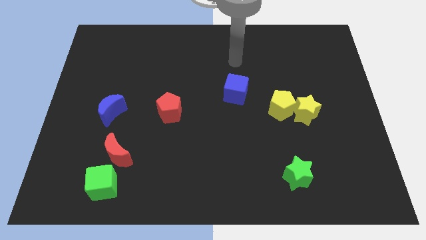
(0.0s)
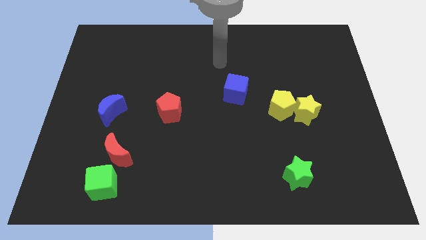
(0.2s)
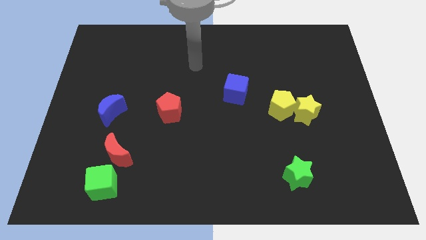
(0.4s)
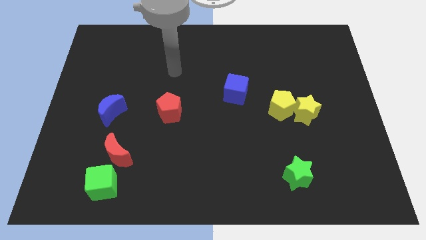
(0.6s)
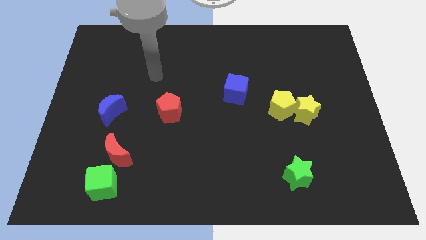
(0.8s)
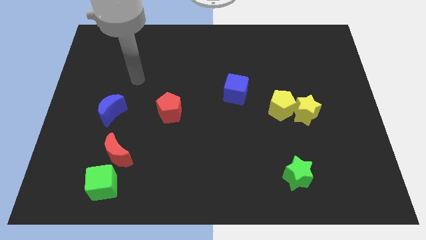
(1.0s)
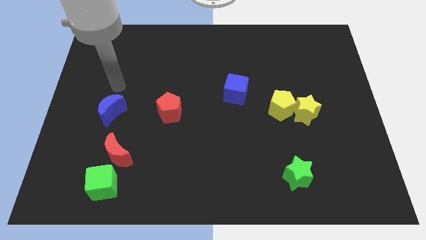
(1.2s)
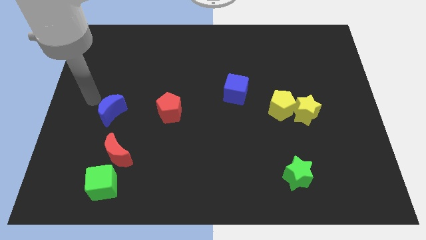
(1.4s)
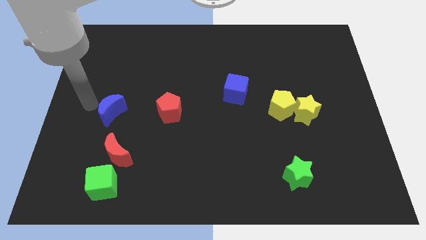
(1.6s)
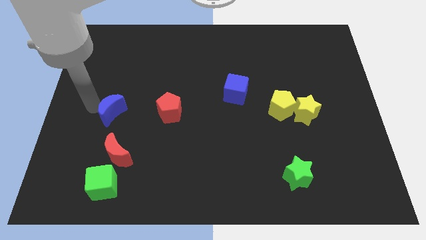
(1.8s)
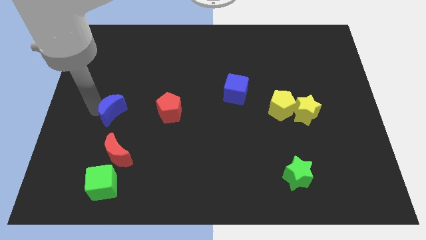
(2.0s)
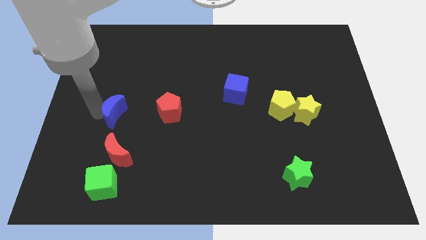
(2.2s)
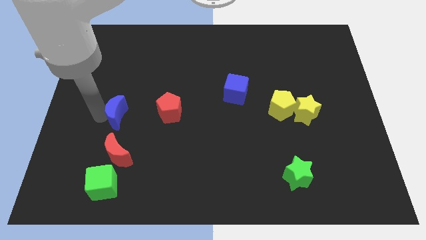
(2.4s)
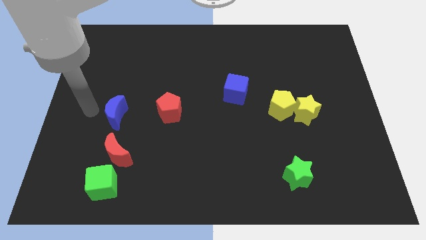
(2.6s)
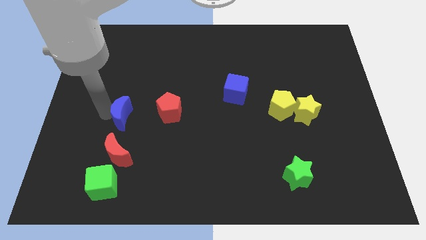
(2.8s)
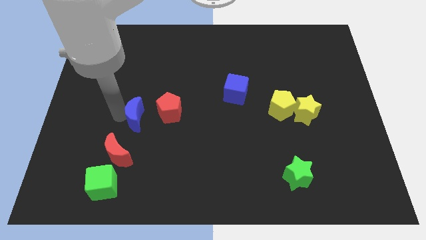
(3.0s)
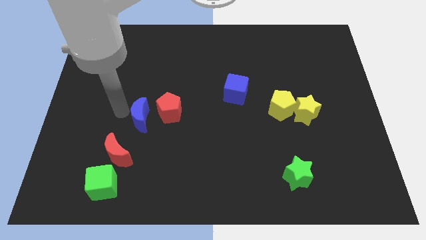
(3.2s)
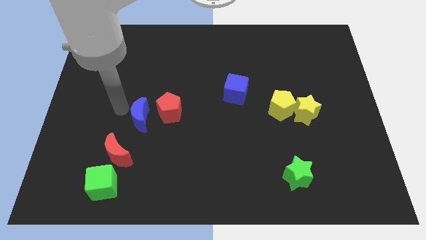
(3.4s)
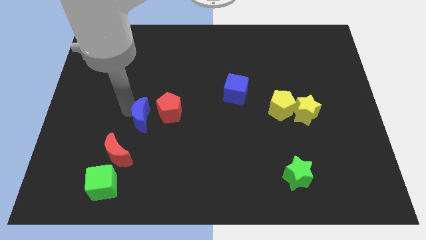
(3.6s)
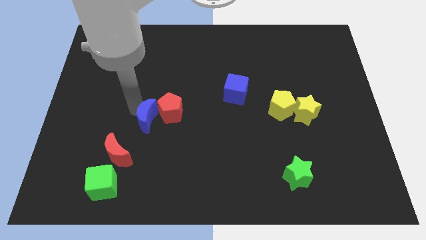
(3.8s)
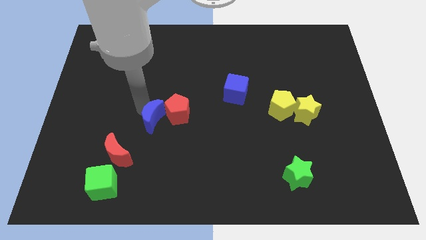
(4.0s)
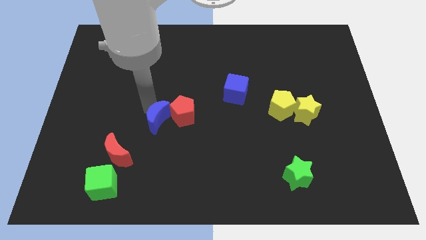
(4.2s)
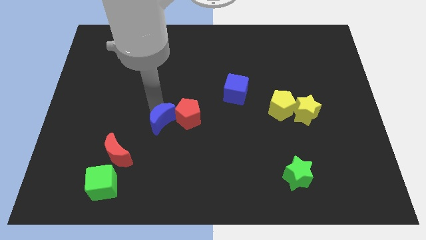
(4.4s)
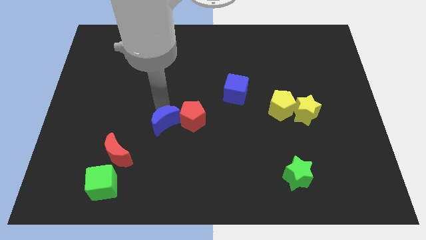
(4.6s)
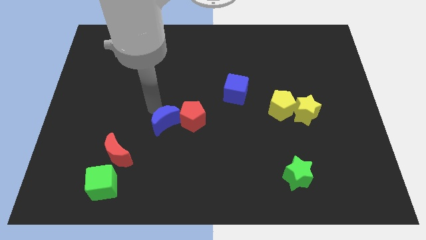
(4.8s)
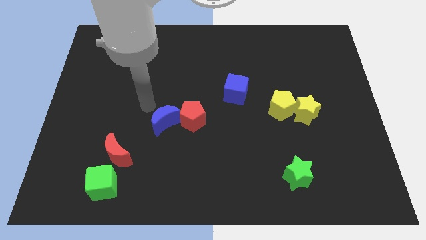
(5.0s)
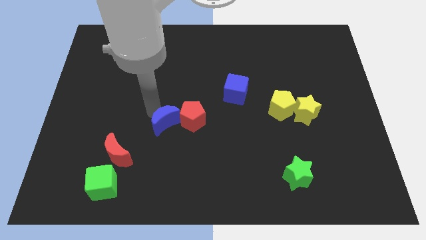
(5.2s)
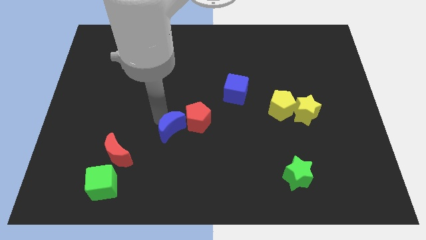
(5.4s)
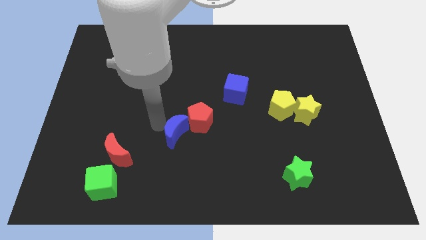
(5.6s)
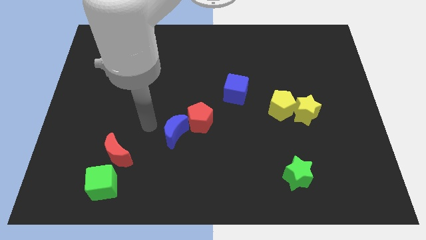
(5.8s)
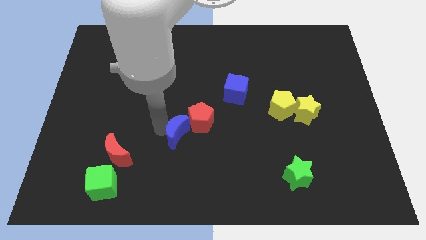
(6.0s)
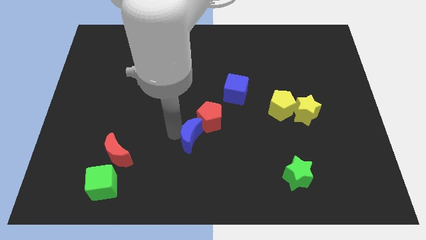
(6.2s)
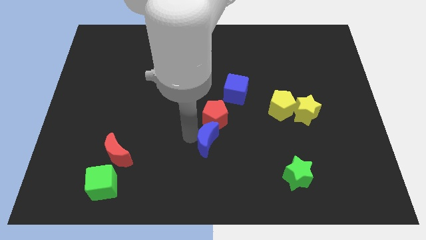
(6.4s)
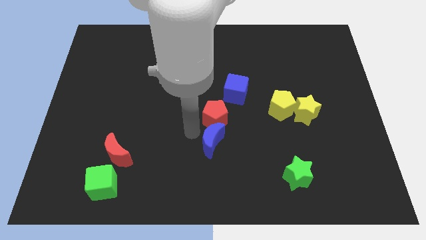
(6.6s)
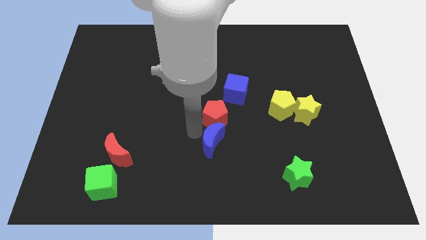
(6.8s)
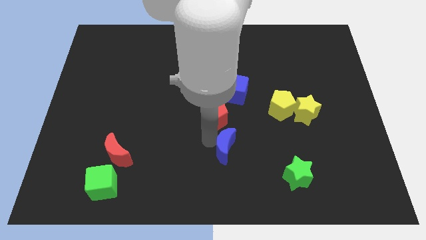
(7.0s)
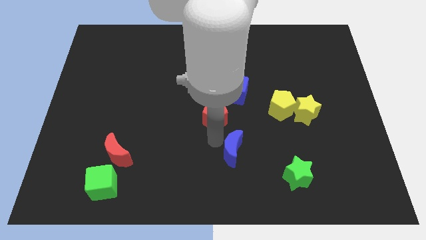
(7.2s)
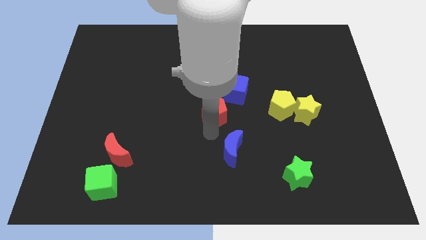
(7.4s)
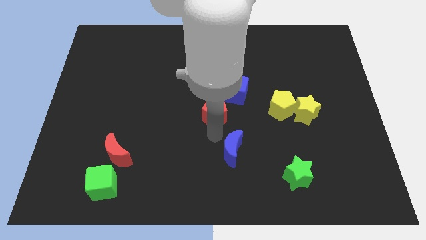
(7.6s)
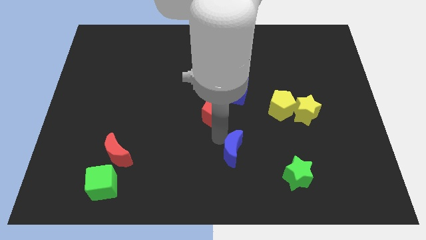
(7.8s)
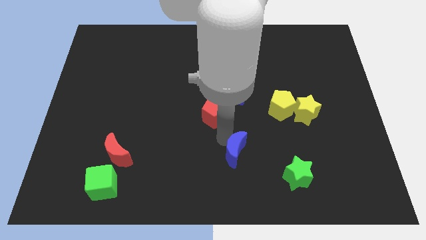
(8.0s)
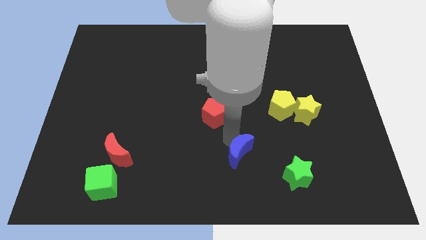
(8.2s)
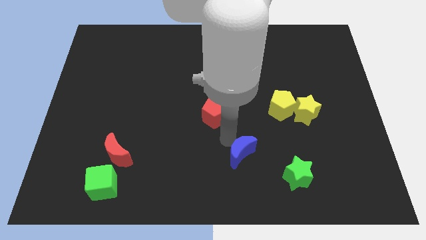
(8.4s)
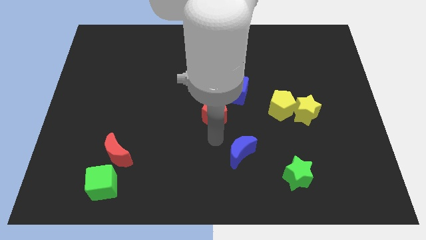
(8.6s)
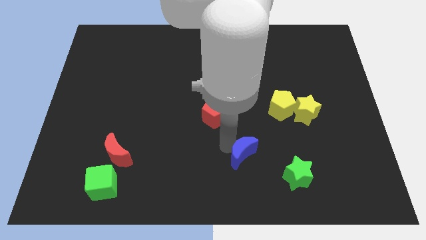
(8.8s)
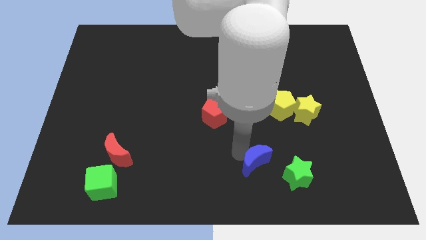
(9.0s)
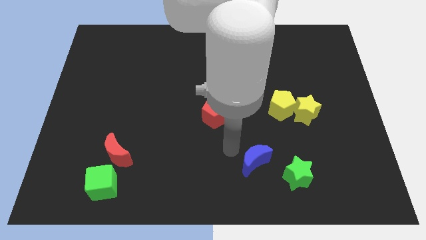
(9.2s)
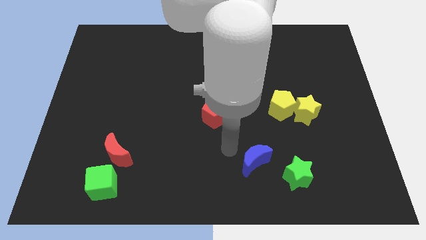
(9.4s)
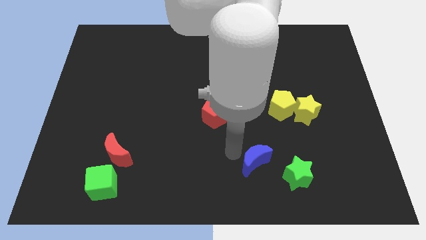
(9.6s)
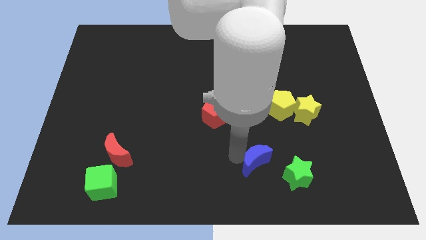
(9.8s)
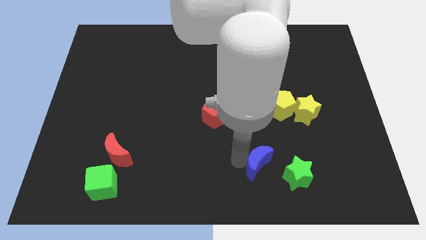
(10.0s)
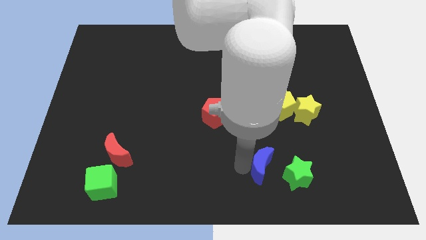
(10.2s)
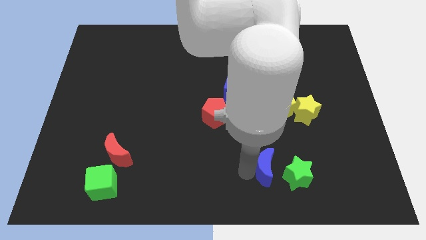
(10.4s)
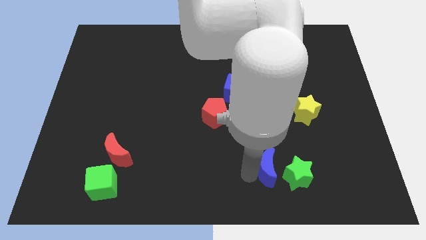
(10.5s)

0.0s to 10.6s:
slide the blue moon to the green star

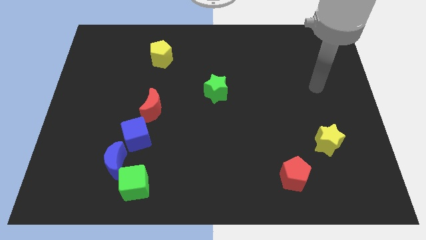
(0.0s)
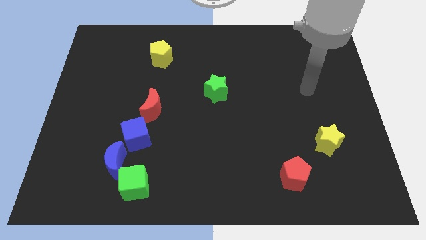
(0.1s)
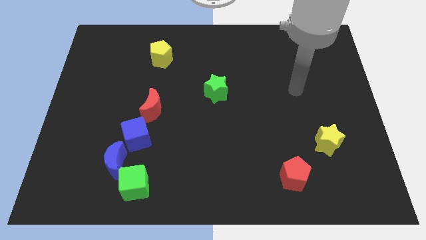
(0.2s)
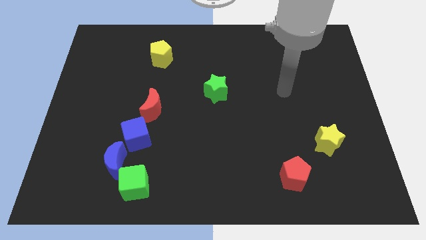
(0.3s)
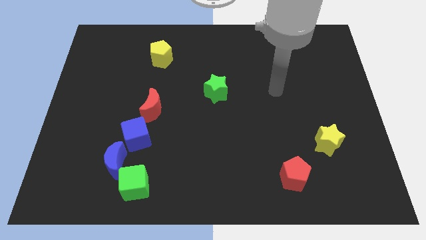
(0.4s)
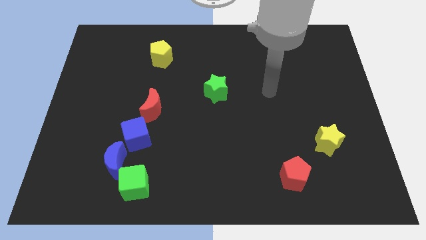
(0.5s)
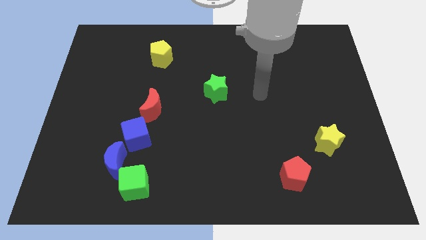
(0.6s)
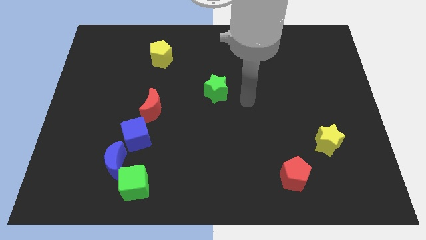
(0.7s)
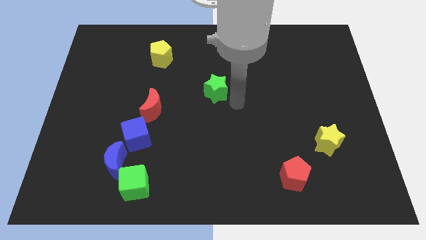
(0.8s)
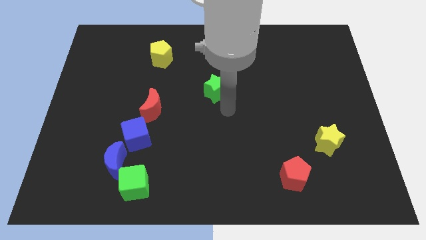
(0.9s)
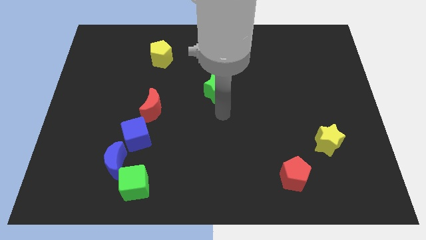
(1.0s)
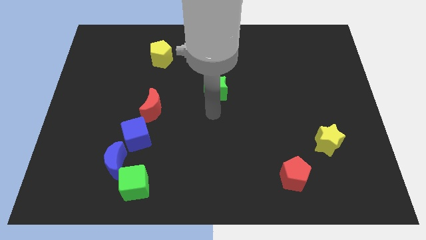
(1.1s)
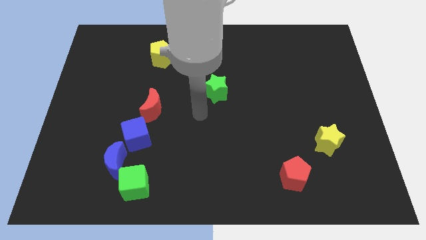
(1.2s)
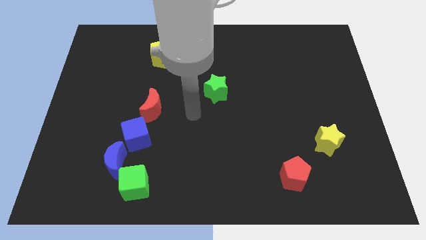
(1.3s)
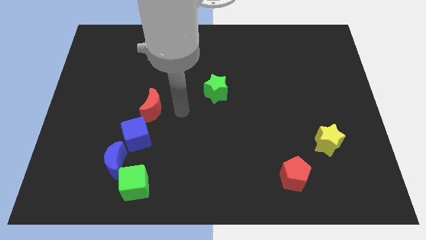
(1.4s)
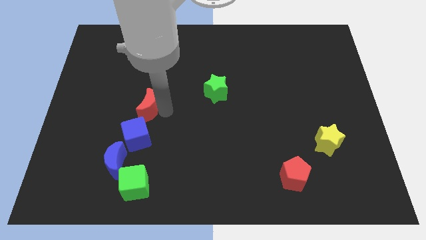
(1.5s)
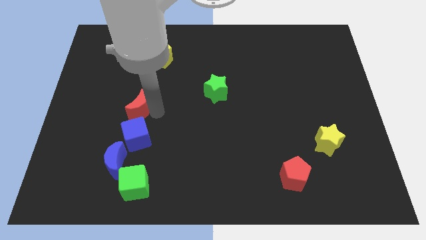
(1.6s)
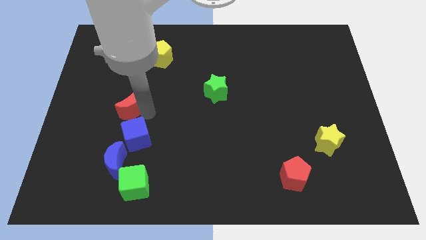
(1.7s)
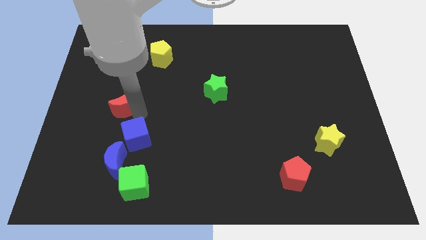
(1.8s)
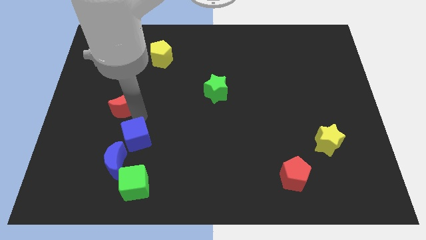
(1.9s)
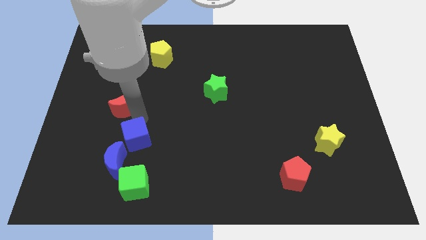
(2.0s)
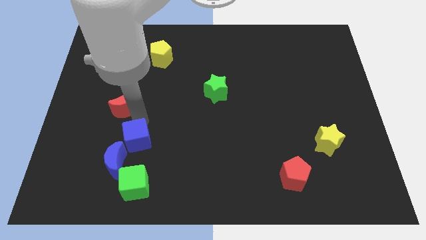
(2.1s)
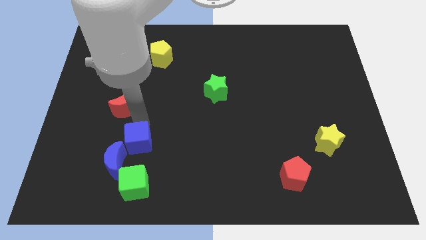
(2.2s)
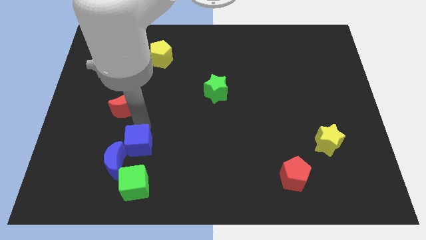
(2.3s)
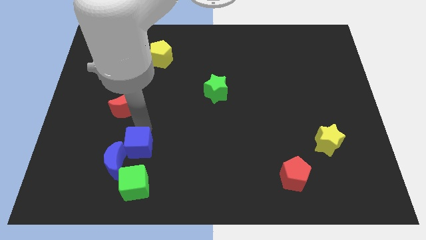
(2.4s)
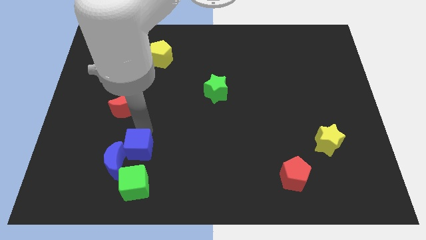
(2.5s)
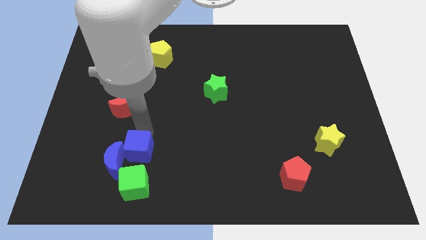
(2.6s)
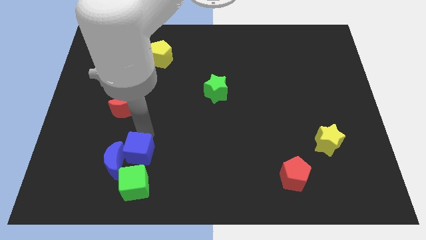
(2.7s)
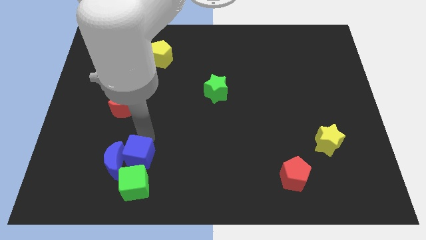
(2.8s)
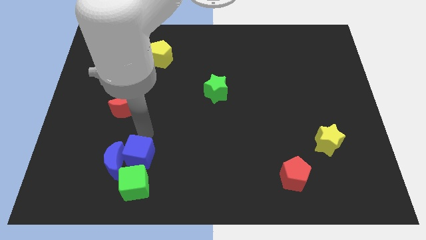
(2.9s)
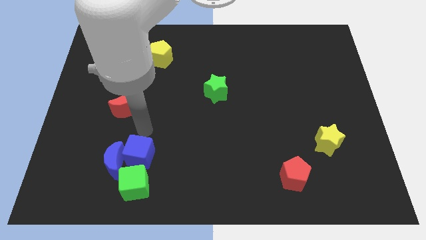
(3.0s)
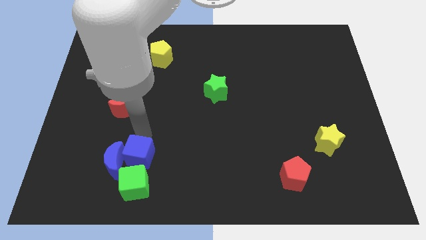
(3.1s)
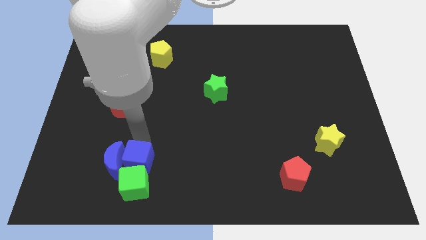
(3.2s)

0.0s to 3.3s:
move the blue cube to the green cube
